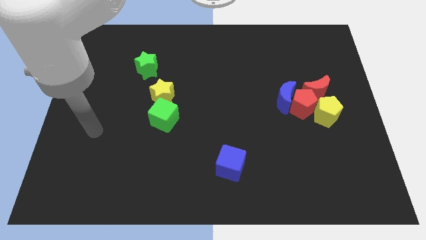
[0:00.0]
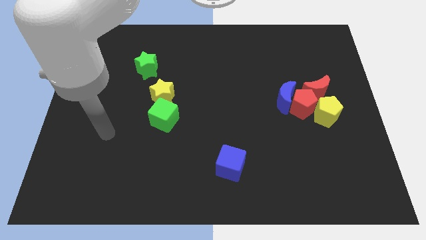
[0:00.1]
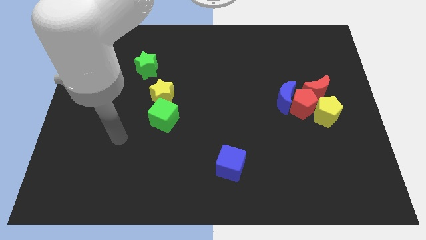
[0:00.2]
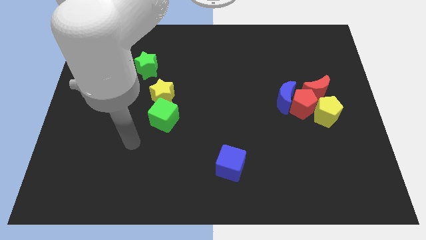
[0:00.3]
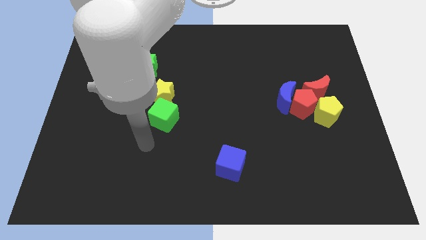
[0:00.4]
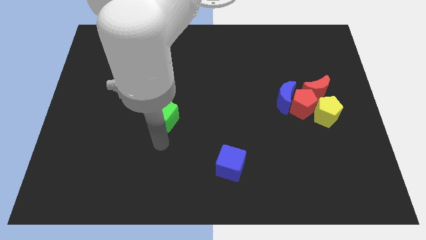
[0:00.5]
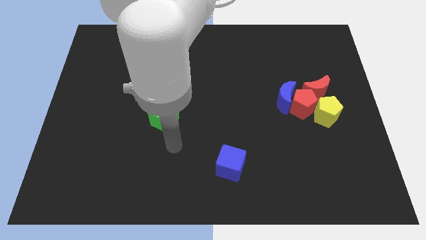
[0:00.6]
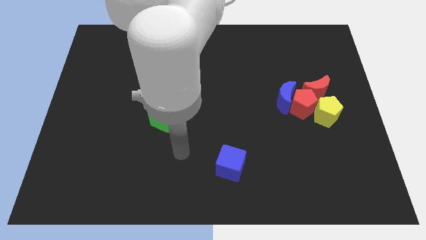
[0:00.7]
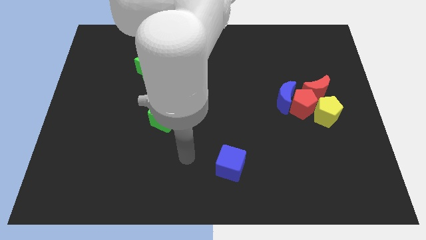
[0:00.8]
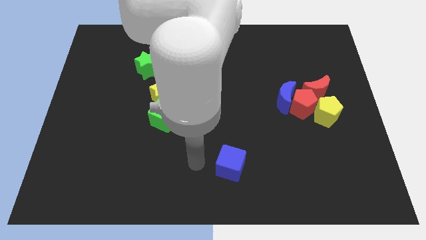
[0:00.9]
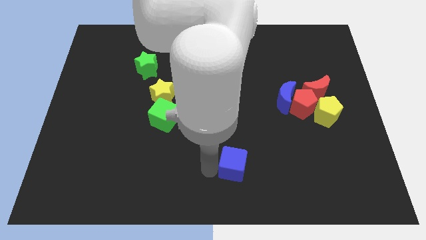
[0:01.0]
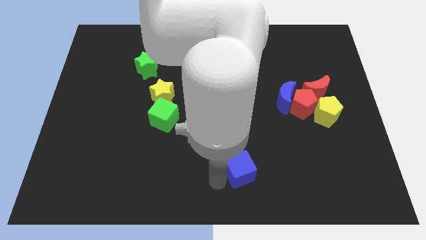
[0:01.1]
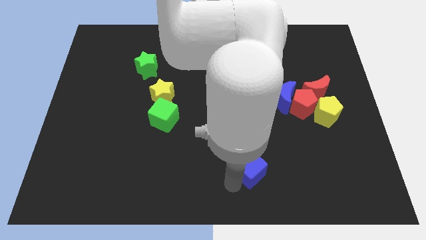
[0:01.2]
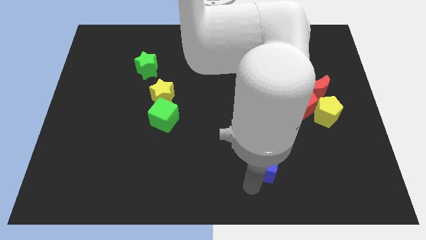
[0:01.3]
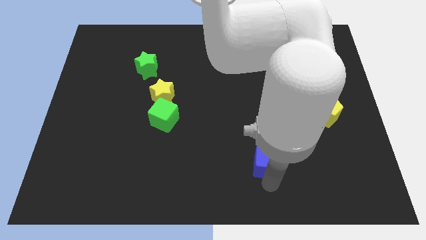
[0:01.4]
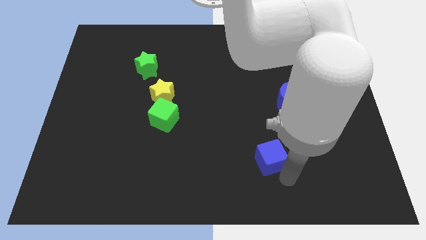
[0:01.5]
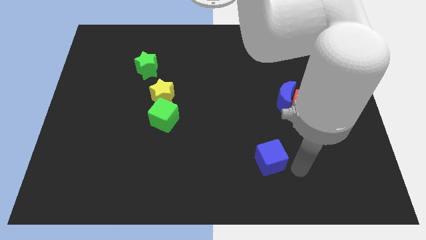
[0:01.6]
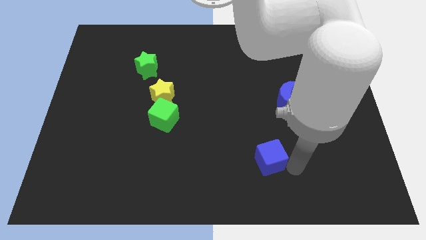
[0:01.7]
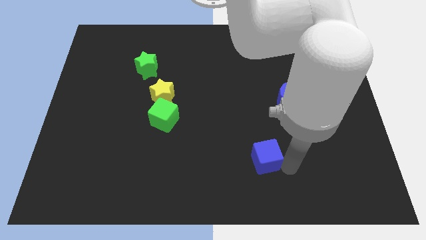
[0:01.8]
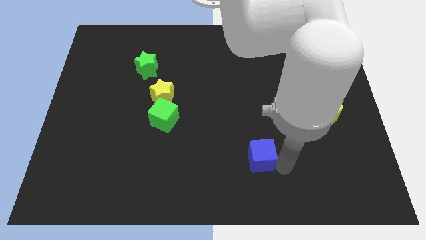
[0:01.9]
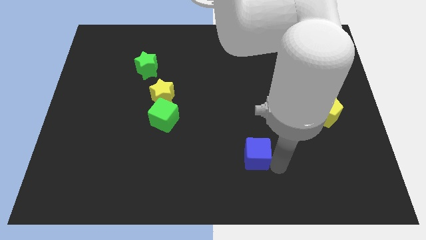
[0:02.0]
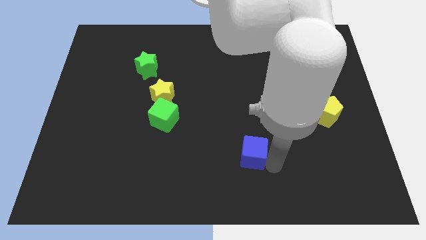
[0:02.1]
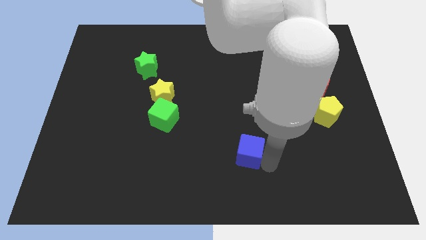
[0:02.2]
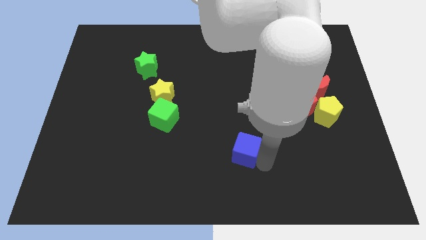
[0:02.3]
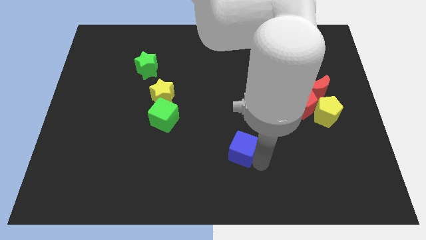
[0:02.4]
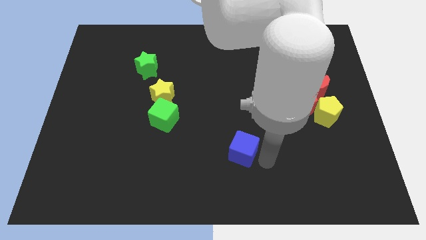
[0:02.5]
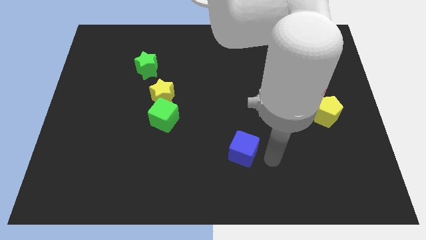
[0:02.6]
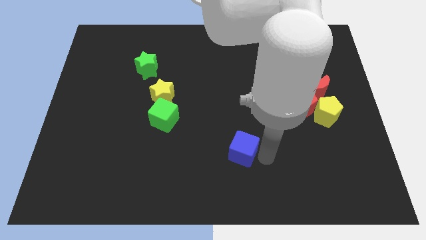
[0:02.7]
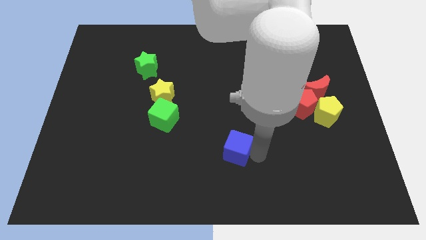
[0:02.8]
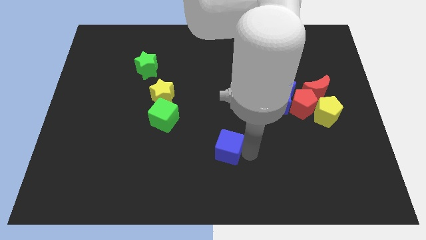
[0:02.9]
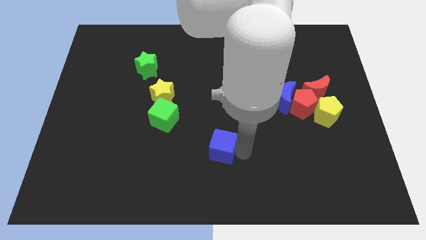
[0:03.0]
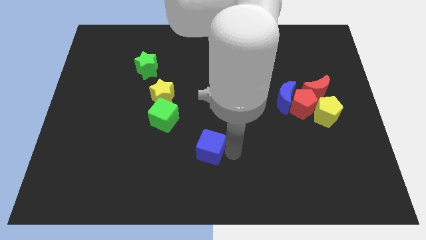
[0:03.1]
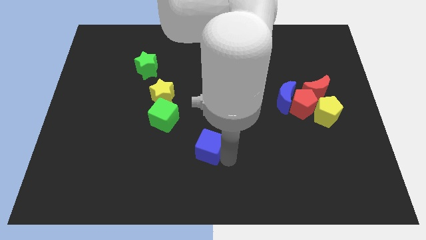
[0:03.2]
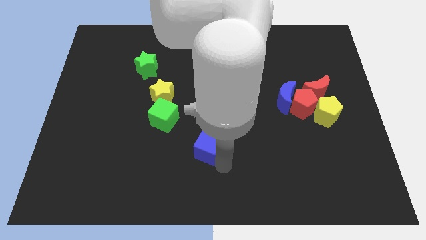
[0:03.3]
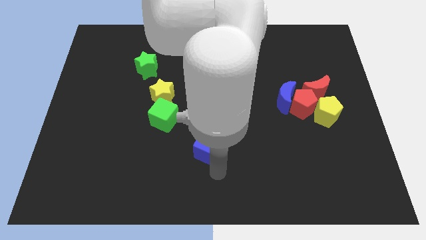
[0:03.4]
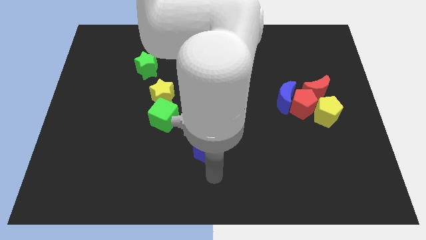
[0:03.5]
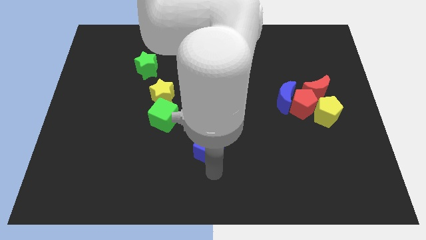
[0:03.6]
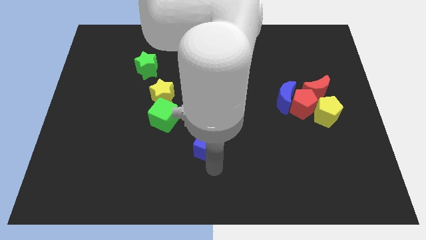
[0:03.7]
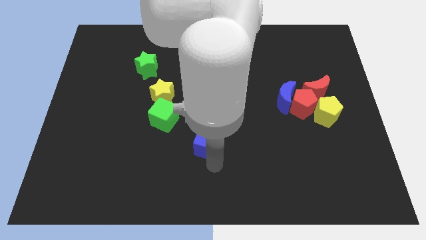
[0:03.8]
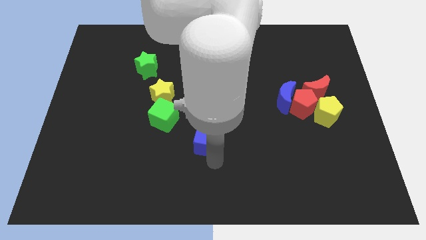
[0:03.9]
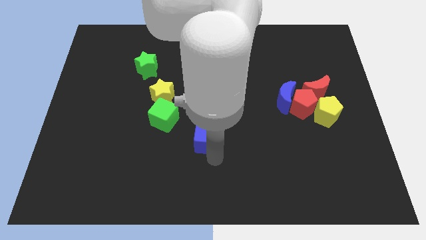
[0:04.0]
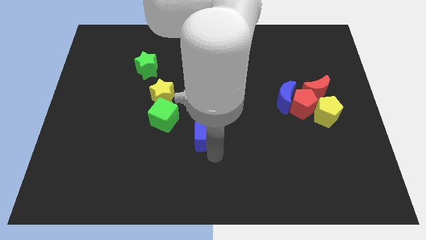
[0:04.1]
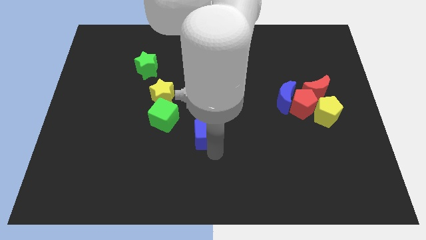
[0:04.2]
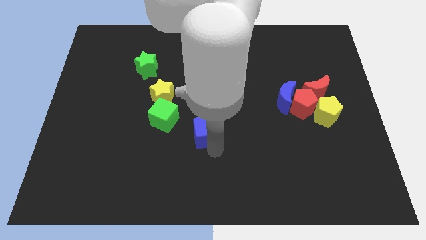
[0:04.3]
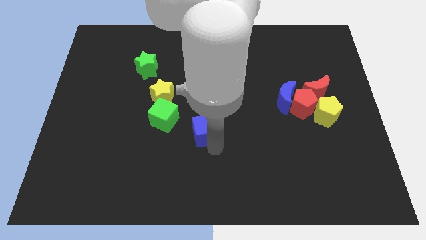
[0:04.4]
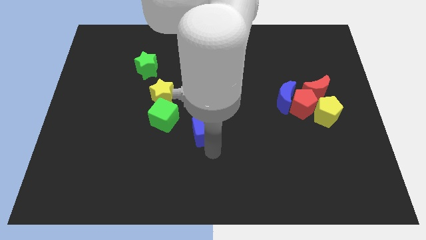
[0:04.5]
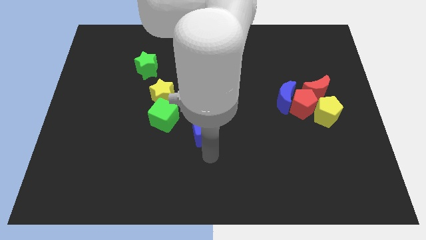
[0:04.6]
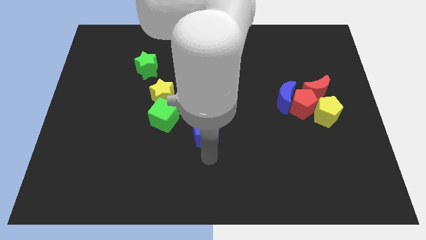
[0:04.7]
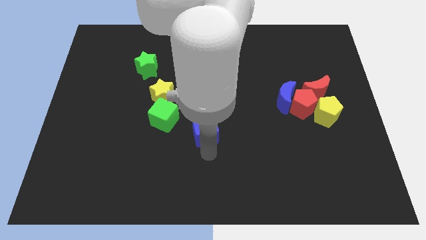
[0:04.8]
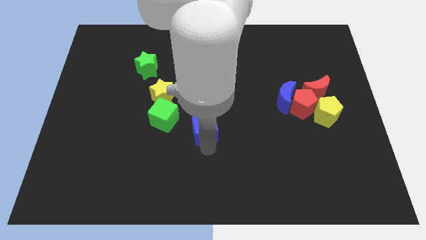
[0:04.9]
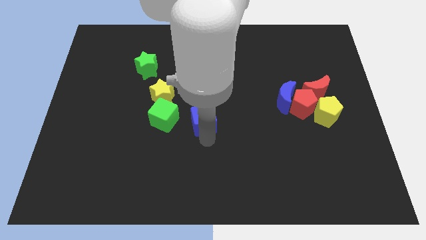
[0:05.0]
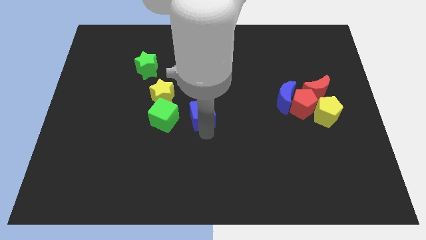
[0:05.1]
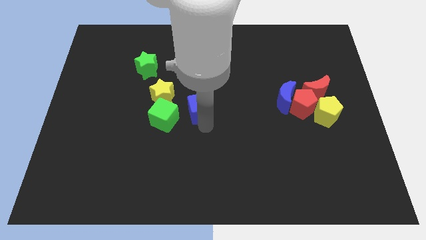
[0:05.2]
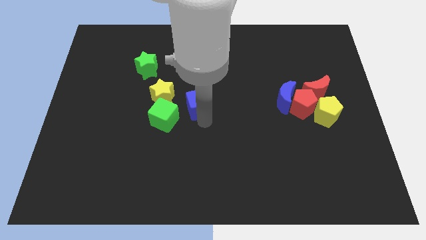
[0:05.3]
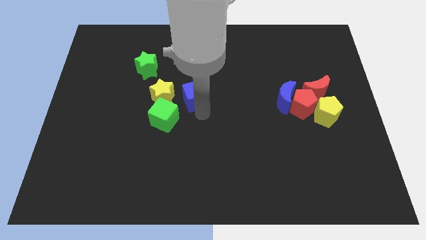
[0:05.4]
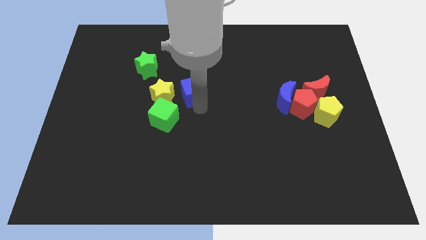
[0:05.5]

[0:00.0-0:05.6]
push the blue cube to the top right side of the yellow star

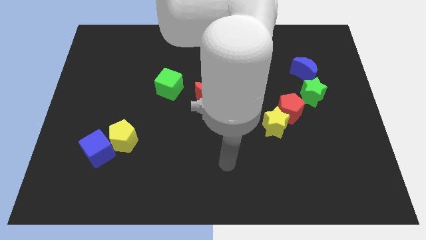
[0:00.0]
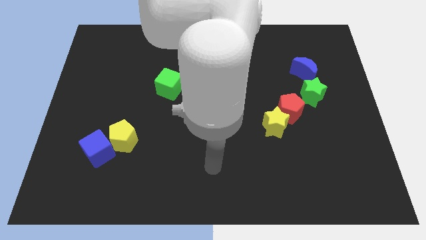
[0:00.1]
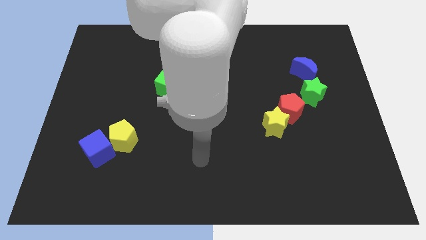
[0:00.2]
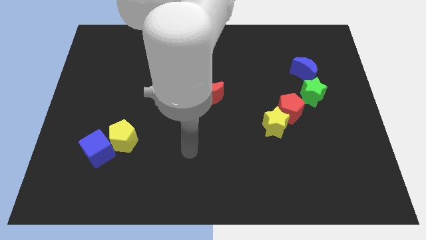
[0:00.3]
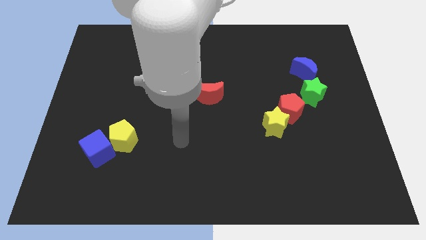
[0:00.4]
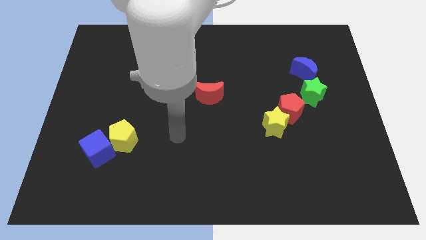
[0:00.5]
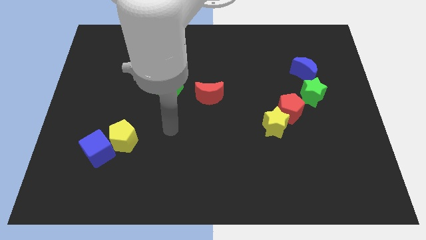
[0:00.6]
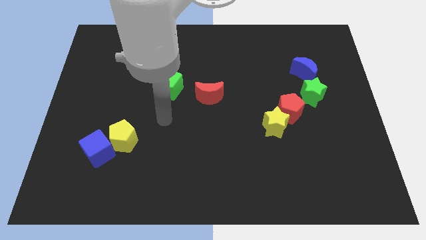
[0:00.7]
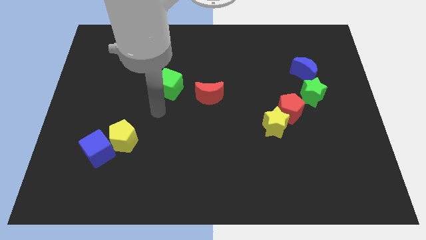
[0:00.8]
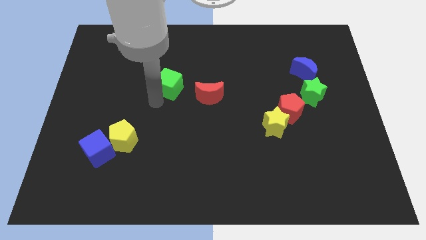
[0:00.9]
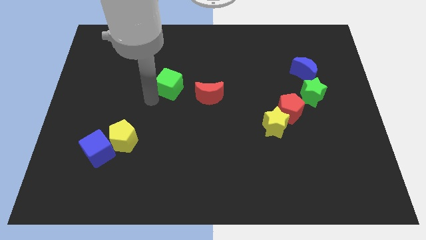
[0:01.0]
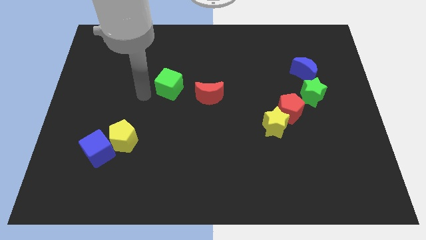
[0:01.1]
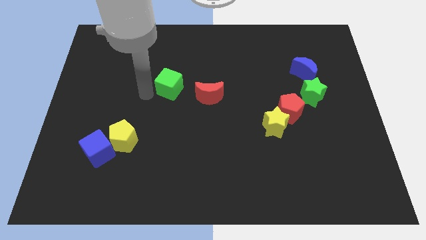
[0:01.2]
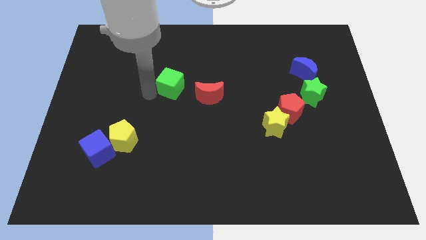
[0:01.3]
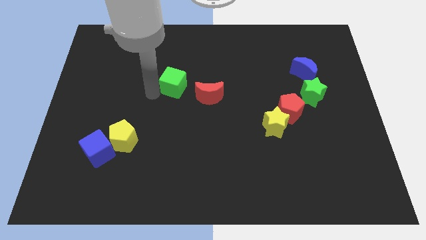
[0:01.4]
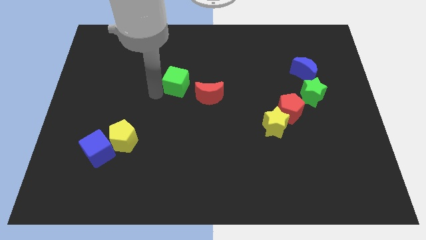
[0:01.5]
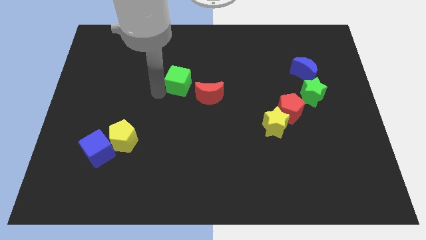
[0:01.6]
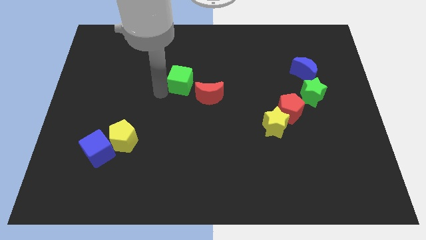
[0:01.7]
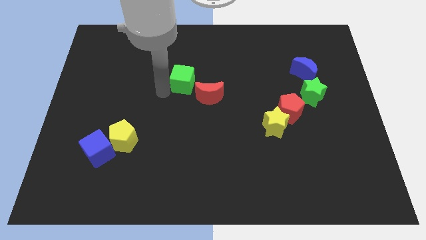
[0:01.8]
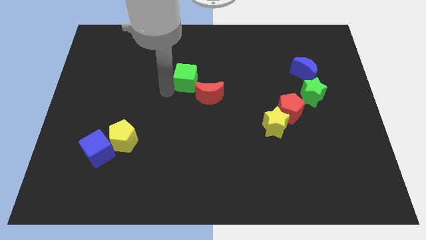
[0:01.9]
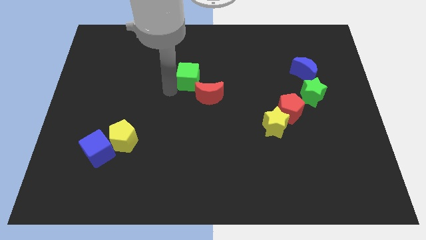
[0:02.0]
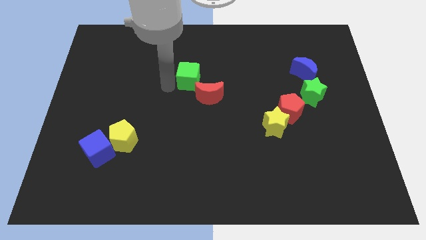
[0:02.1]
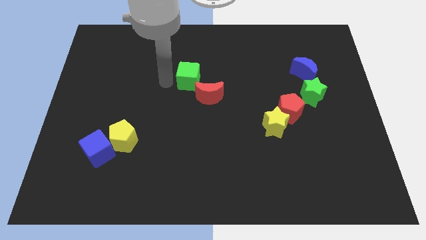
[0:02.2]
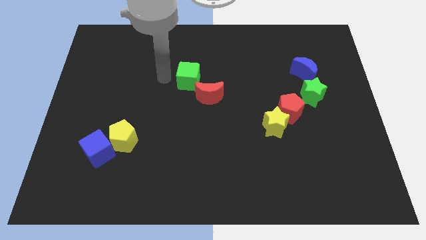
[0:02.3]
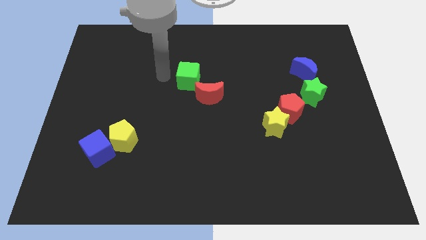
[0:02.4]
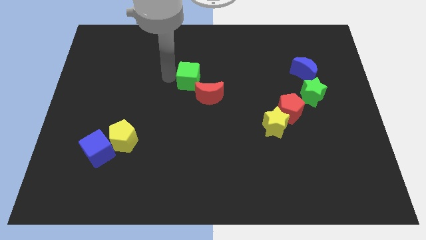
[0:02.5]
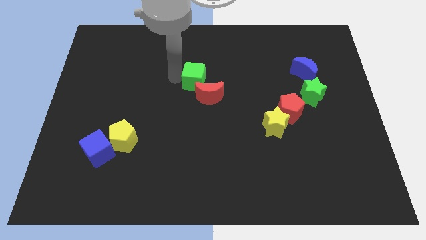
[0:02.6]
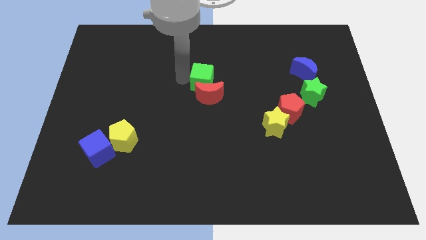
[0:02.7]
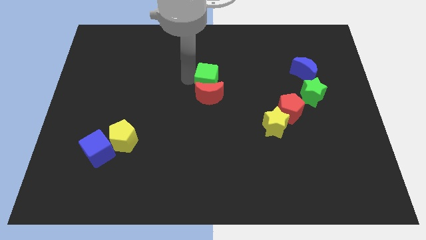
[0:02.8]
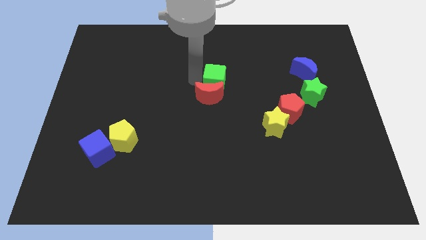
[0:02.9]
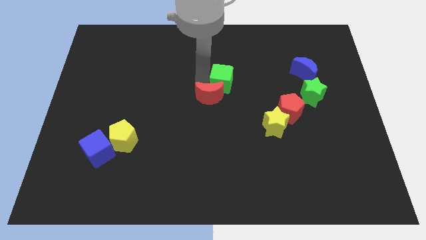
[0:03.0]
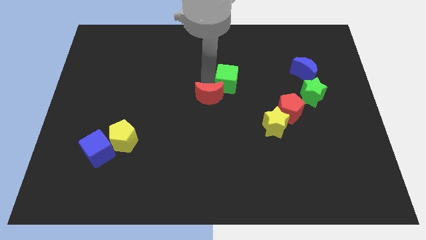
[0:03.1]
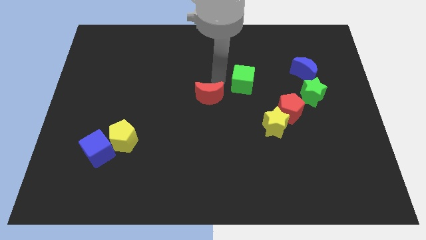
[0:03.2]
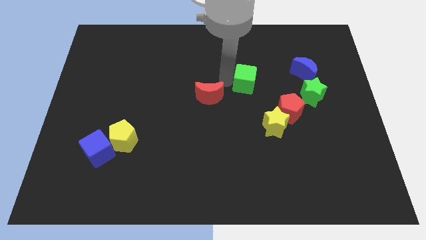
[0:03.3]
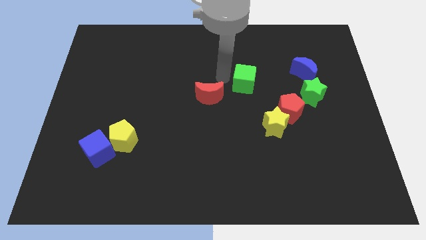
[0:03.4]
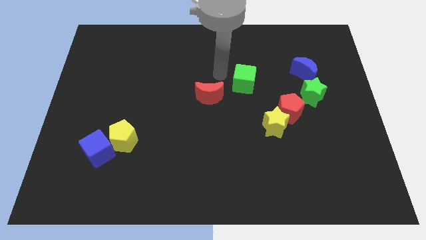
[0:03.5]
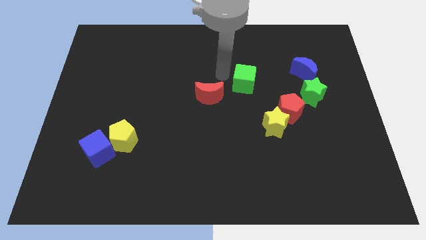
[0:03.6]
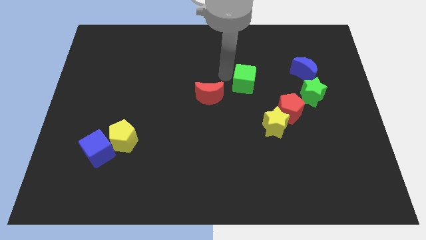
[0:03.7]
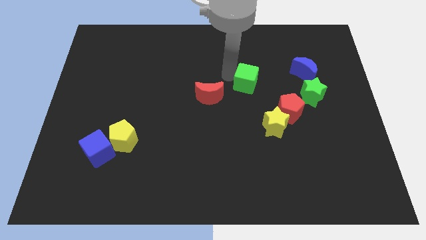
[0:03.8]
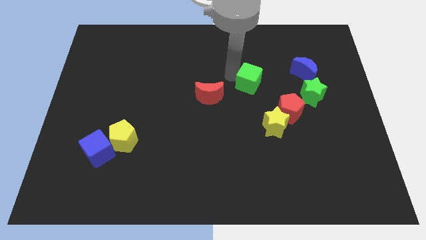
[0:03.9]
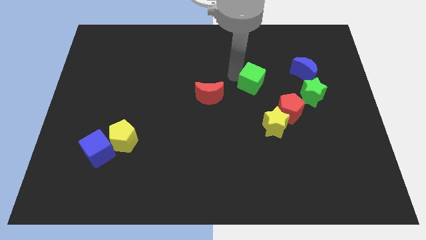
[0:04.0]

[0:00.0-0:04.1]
push the green cube above the yellow star
